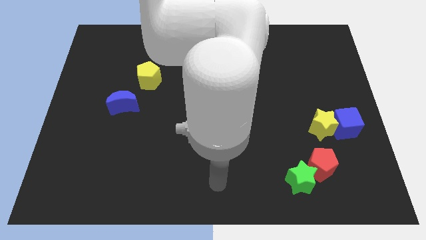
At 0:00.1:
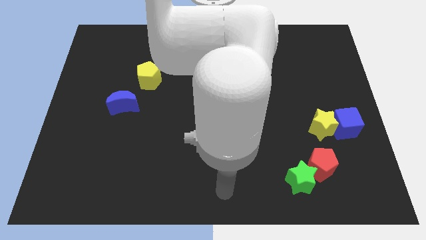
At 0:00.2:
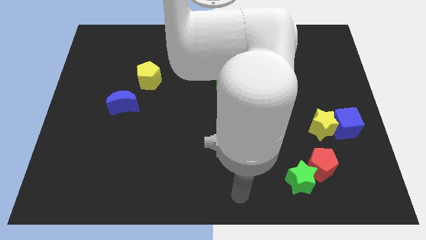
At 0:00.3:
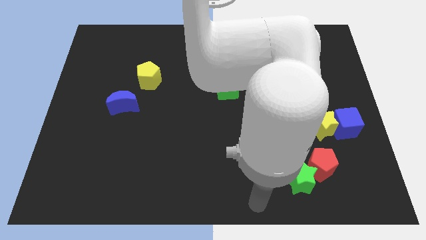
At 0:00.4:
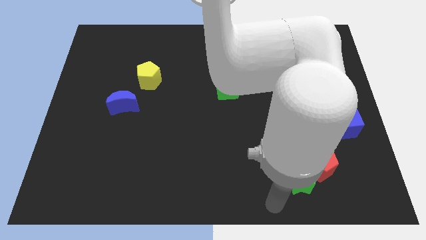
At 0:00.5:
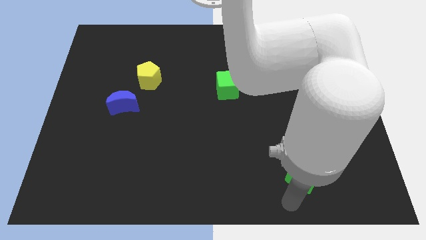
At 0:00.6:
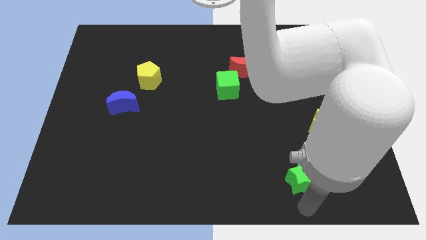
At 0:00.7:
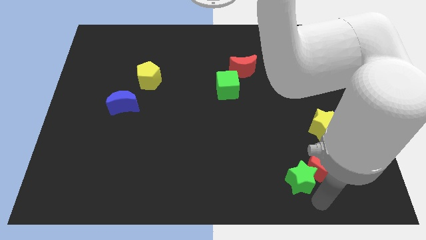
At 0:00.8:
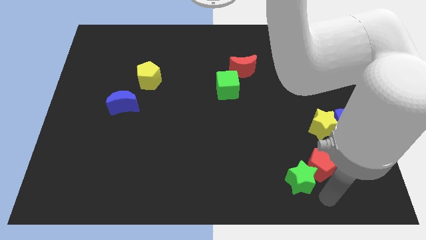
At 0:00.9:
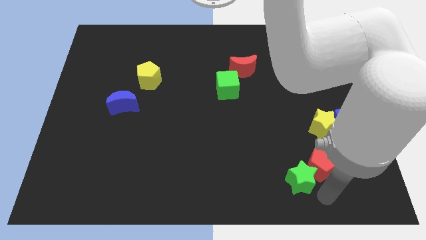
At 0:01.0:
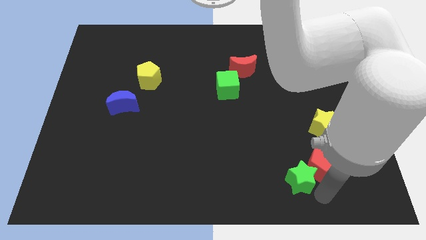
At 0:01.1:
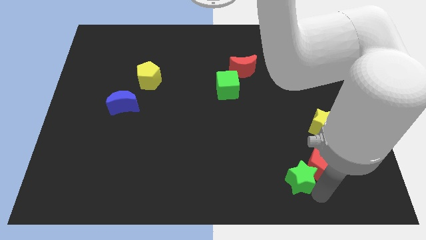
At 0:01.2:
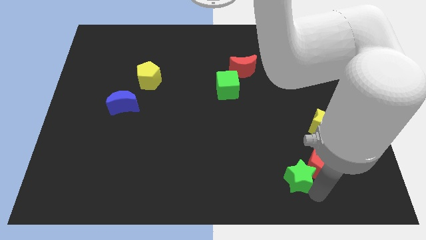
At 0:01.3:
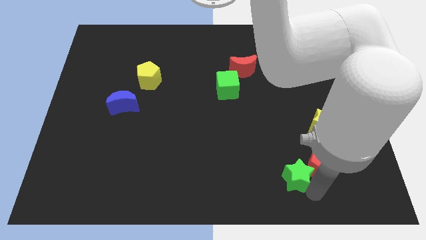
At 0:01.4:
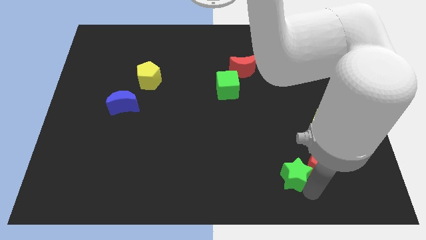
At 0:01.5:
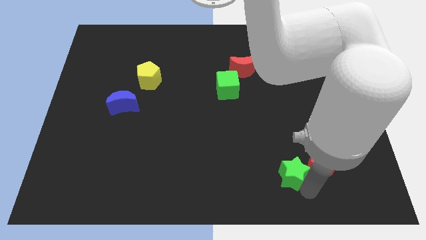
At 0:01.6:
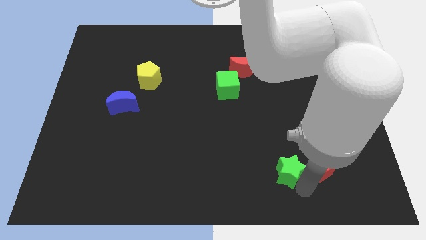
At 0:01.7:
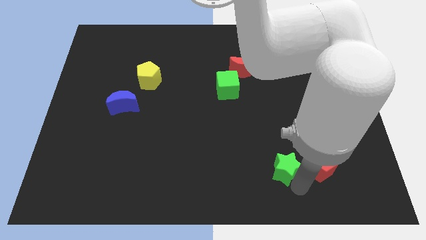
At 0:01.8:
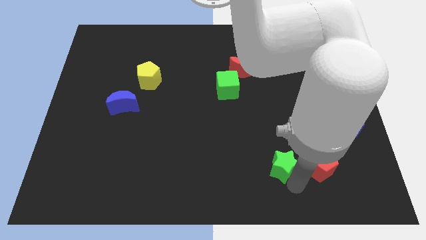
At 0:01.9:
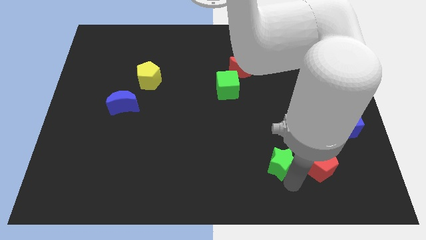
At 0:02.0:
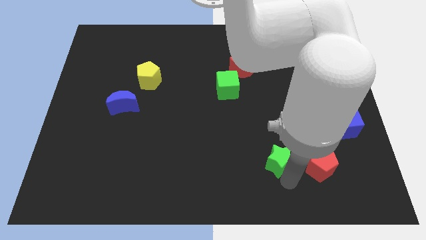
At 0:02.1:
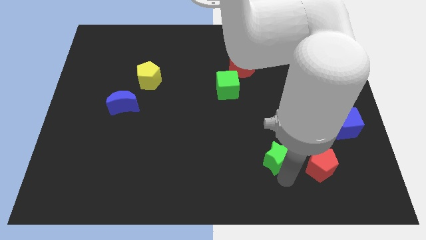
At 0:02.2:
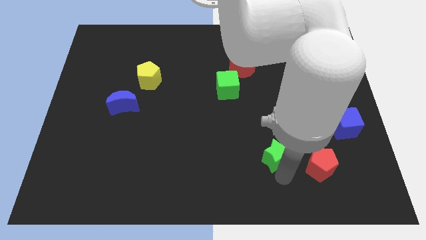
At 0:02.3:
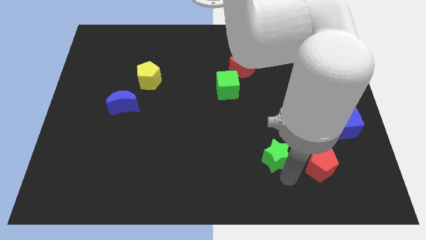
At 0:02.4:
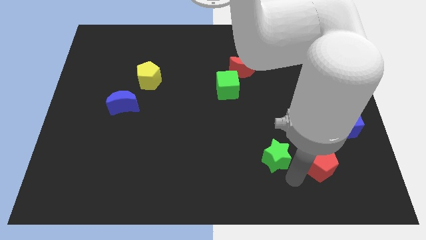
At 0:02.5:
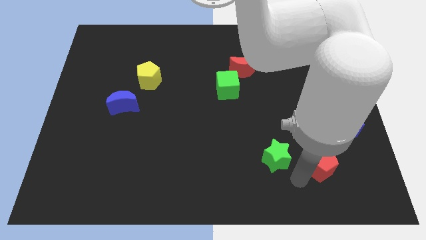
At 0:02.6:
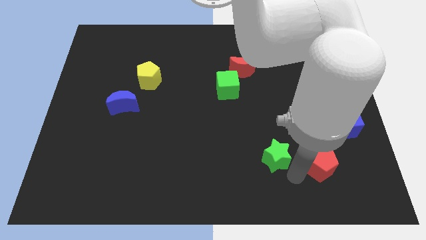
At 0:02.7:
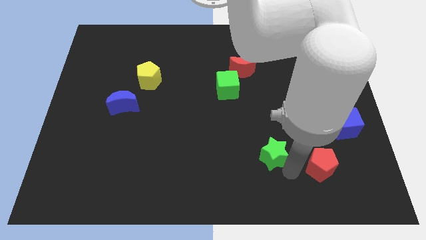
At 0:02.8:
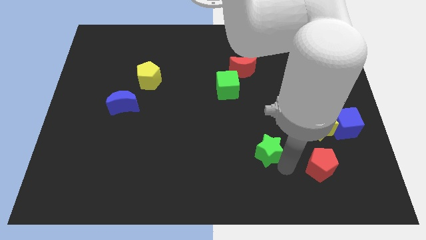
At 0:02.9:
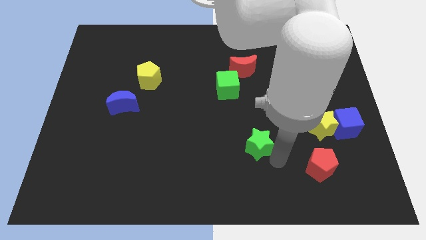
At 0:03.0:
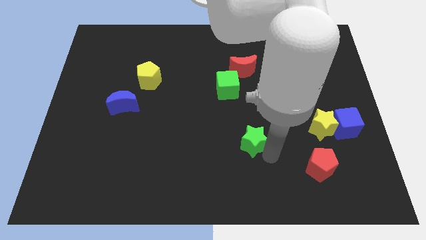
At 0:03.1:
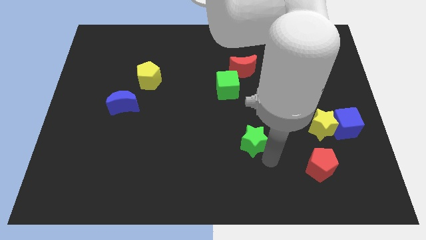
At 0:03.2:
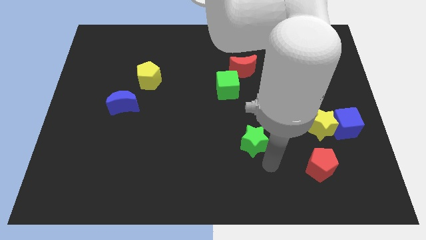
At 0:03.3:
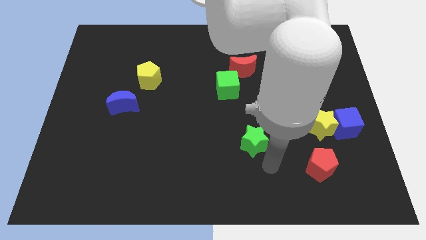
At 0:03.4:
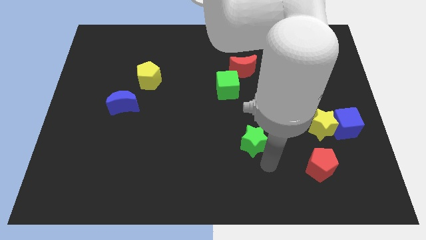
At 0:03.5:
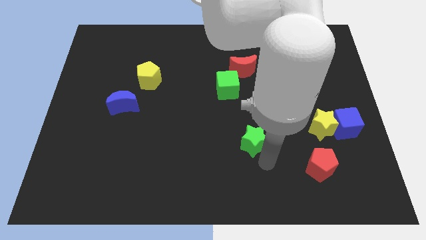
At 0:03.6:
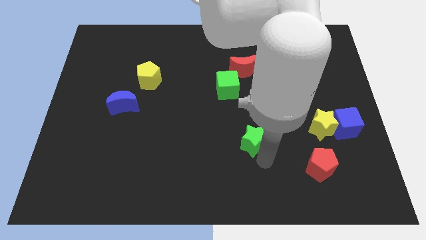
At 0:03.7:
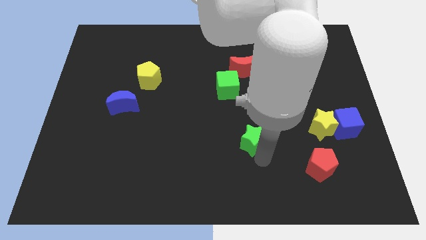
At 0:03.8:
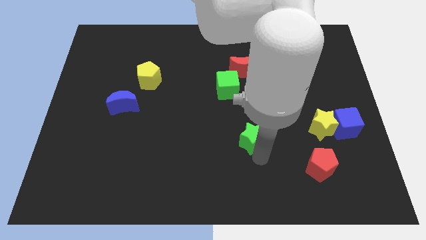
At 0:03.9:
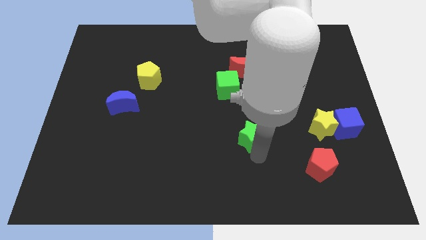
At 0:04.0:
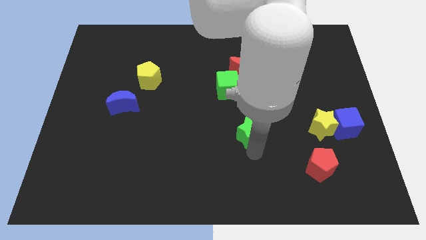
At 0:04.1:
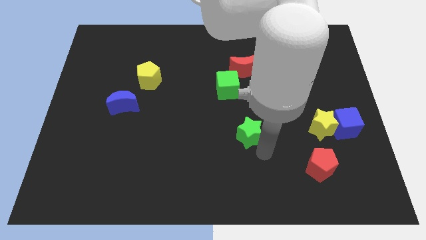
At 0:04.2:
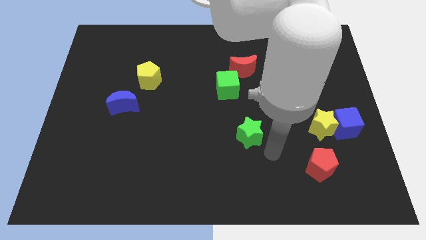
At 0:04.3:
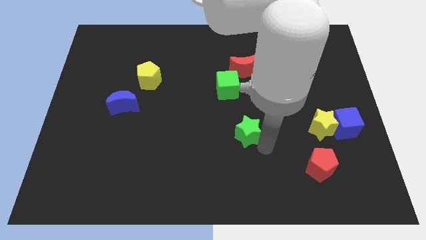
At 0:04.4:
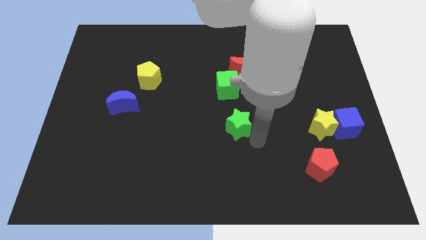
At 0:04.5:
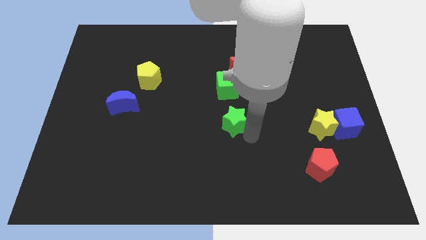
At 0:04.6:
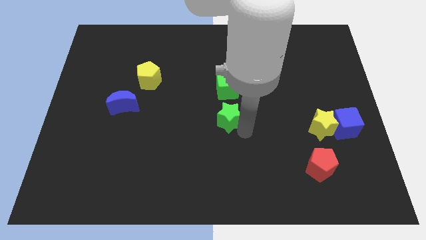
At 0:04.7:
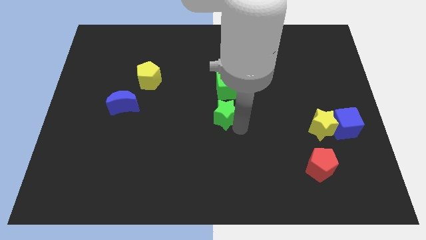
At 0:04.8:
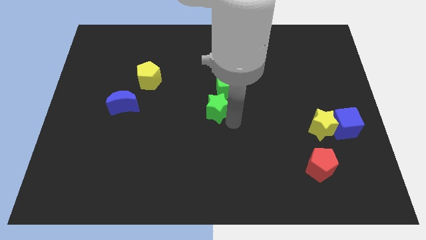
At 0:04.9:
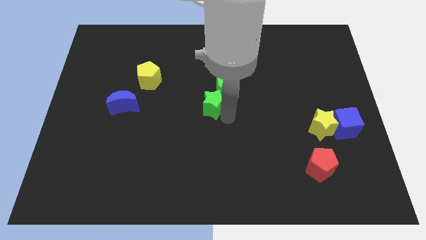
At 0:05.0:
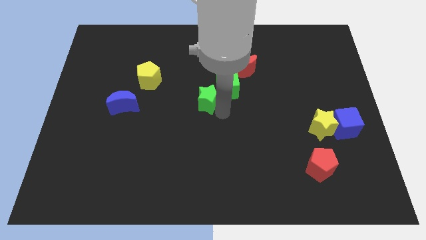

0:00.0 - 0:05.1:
slide the green star just left of the green cube

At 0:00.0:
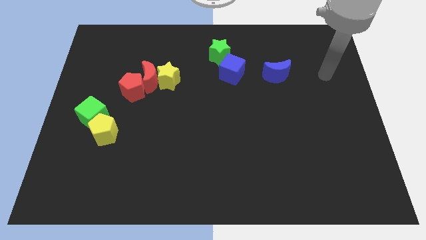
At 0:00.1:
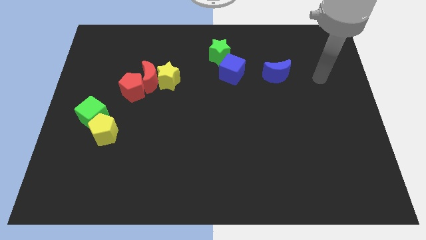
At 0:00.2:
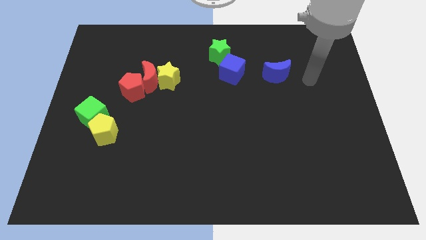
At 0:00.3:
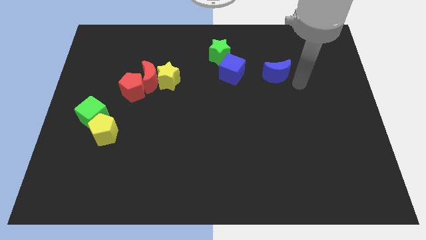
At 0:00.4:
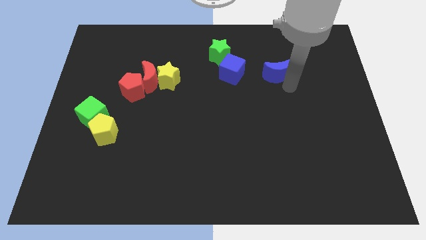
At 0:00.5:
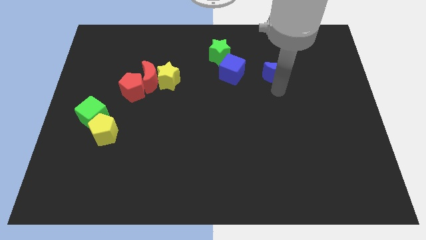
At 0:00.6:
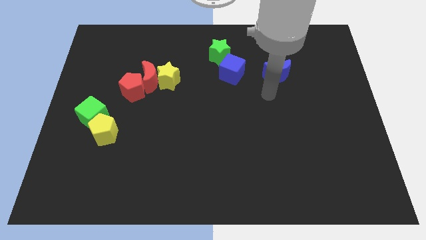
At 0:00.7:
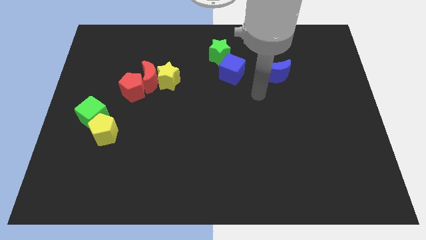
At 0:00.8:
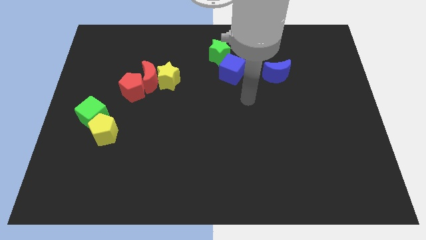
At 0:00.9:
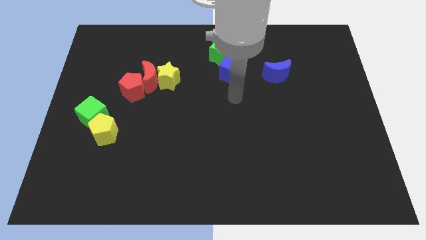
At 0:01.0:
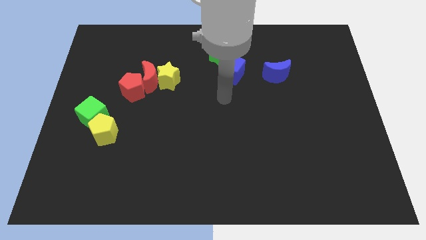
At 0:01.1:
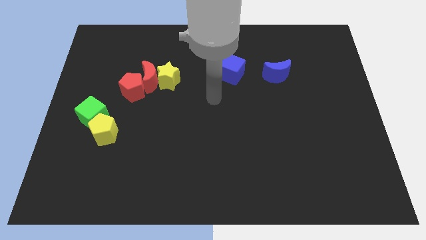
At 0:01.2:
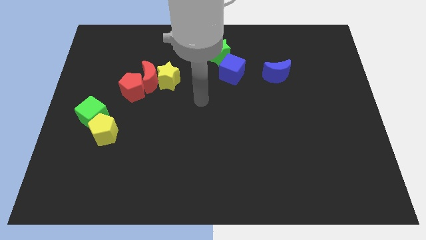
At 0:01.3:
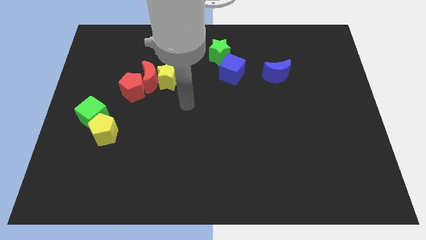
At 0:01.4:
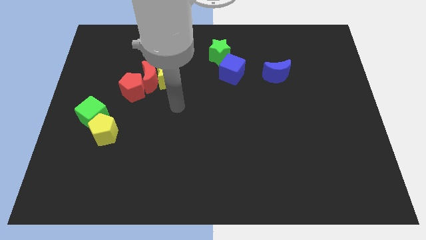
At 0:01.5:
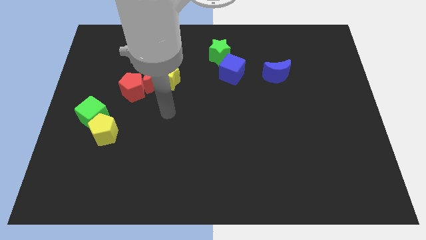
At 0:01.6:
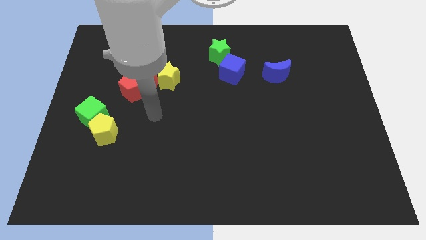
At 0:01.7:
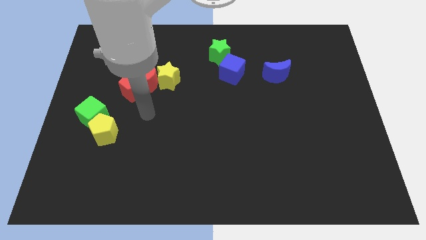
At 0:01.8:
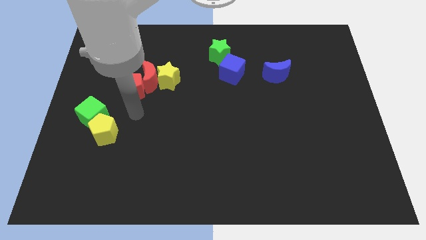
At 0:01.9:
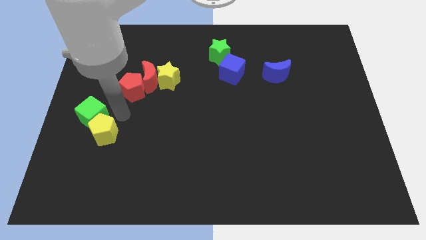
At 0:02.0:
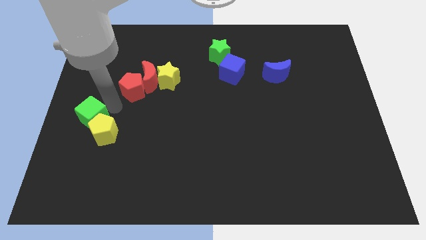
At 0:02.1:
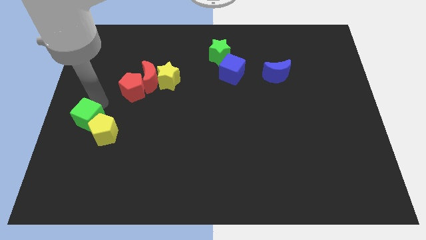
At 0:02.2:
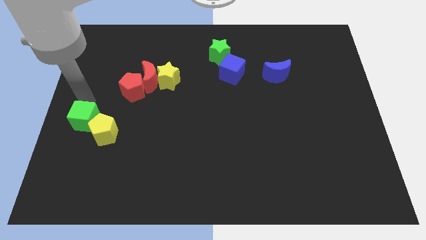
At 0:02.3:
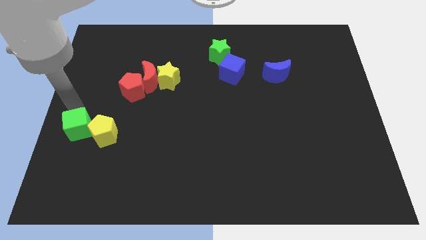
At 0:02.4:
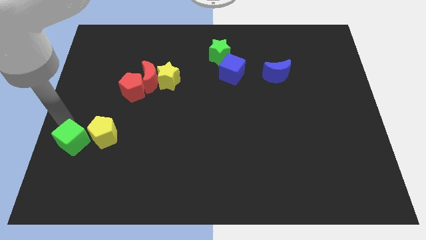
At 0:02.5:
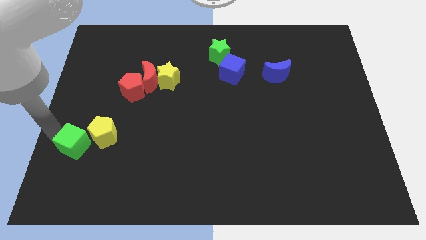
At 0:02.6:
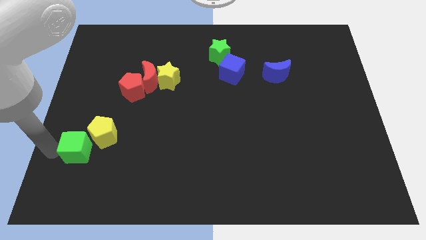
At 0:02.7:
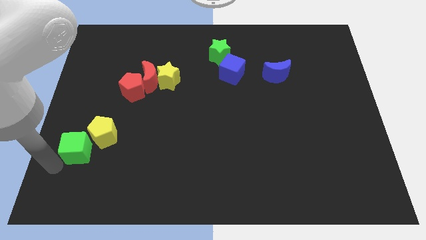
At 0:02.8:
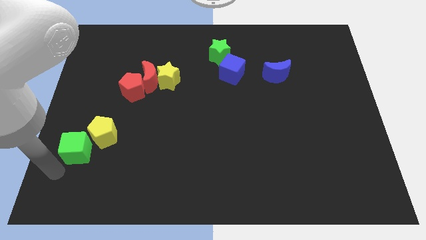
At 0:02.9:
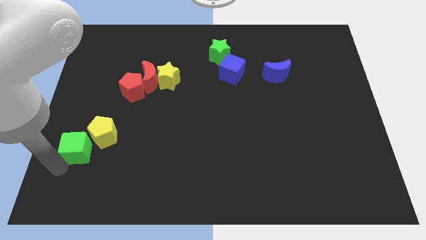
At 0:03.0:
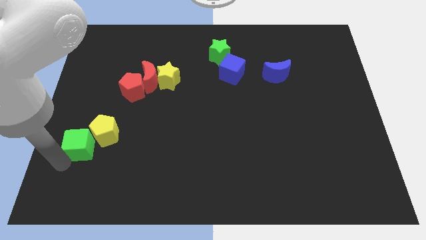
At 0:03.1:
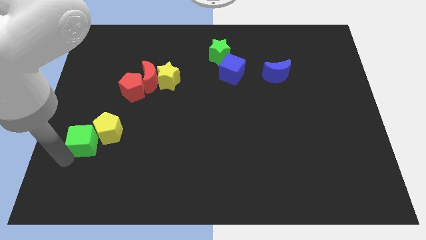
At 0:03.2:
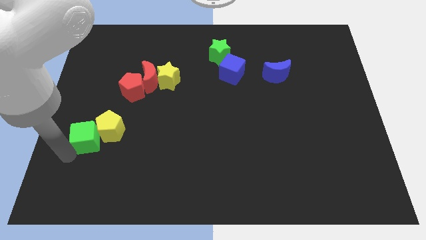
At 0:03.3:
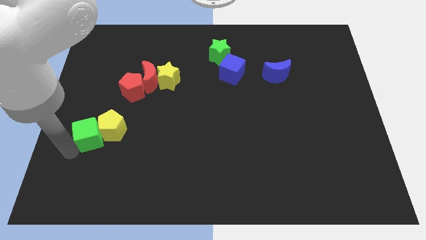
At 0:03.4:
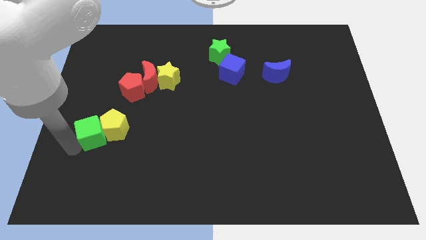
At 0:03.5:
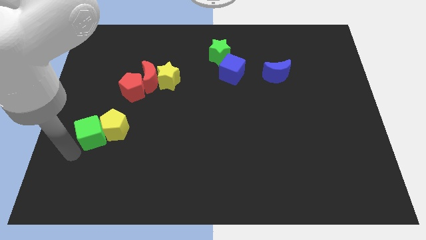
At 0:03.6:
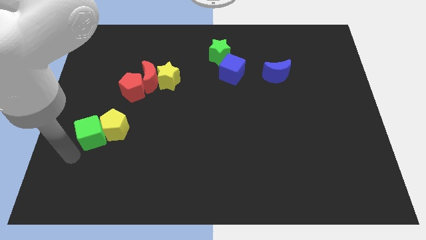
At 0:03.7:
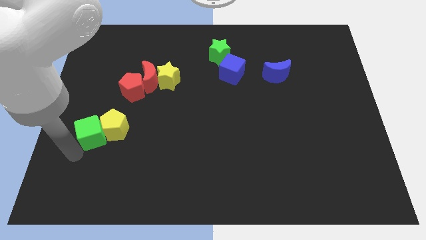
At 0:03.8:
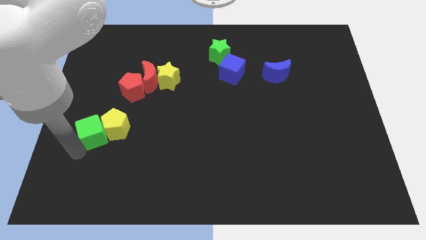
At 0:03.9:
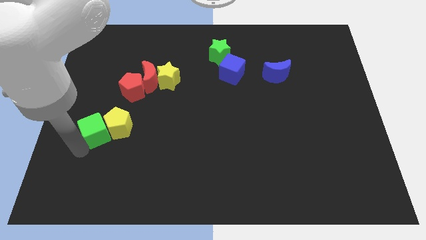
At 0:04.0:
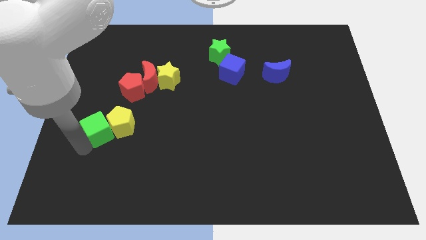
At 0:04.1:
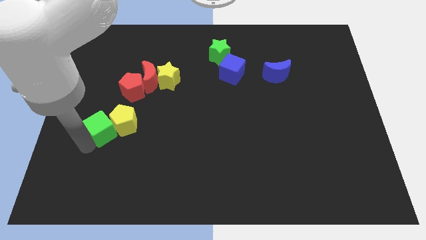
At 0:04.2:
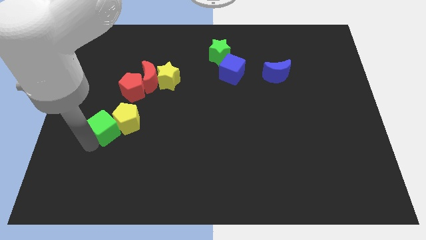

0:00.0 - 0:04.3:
move the green cube to the bottom side of the red pentagon
